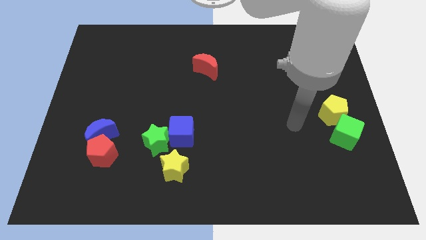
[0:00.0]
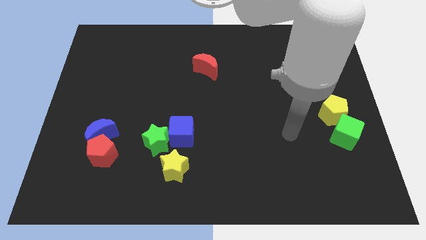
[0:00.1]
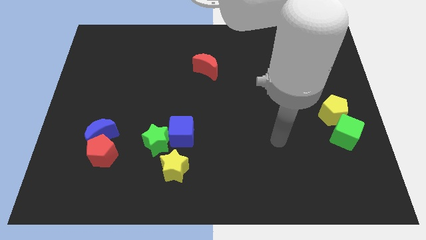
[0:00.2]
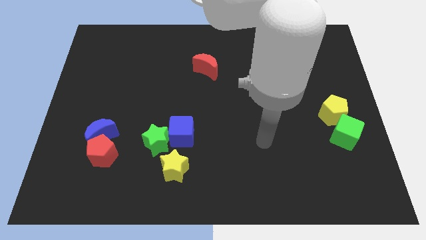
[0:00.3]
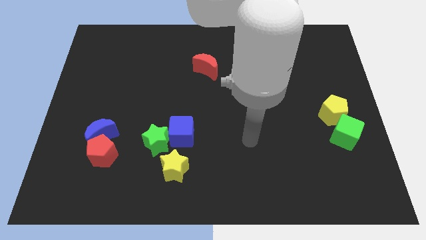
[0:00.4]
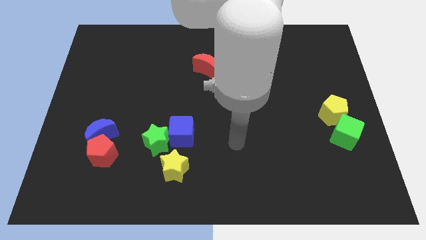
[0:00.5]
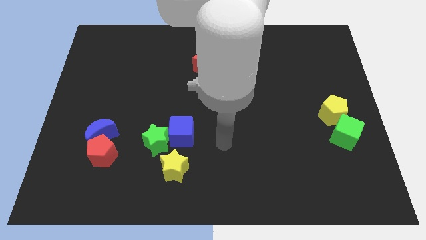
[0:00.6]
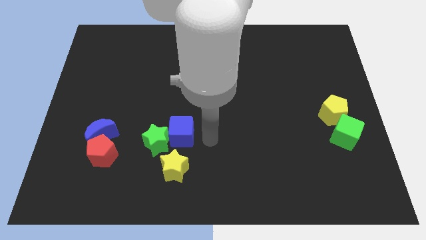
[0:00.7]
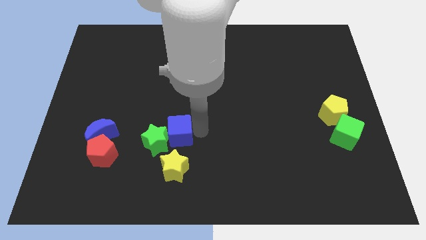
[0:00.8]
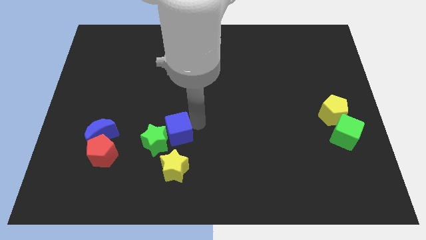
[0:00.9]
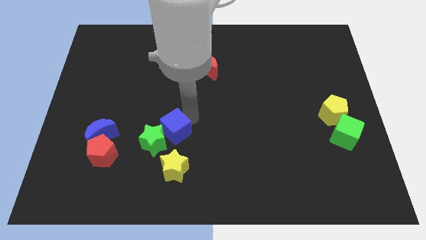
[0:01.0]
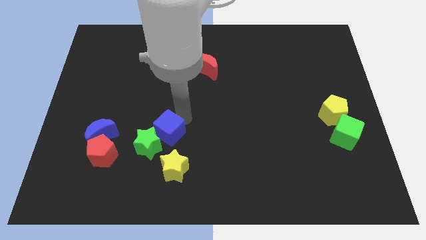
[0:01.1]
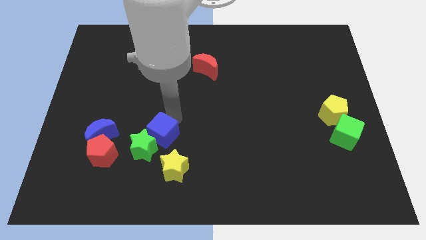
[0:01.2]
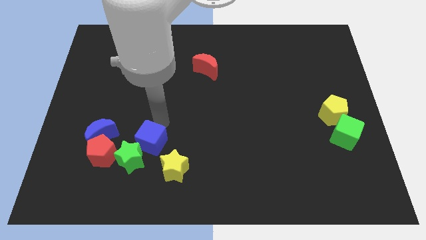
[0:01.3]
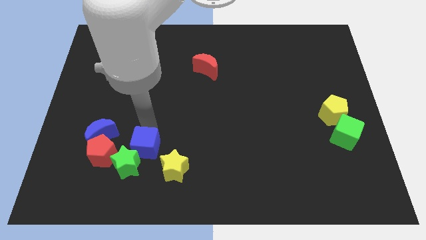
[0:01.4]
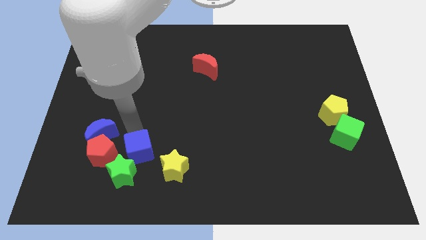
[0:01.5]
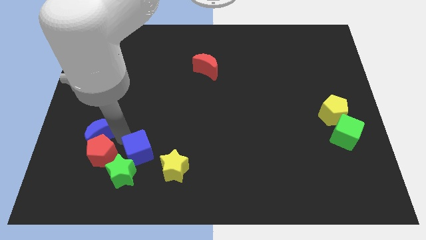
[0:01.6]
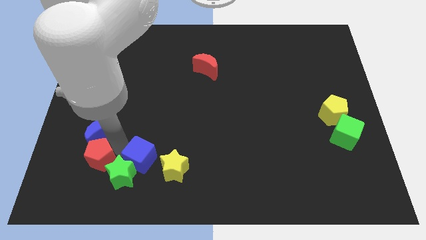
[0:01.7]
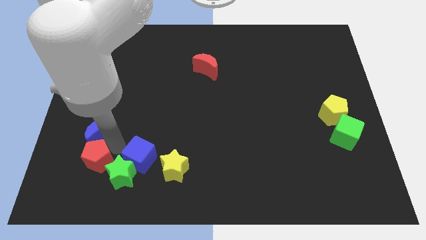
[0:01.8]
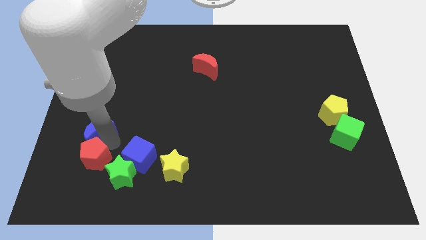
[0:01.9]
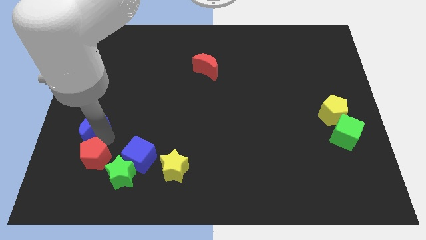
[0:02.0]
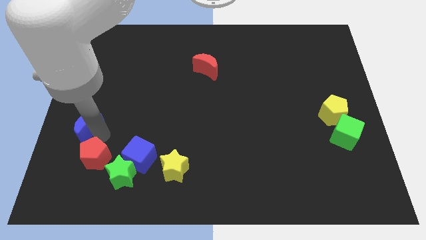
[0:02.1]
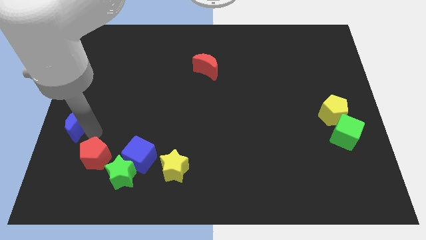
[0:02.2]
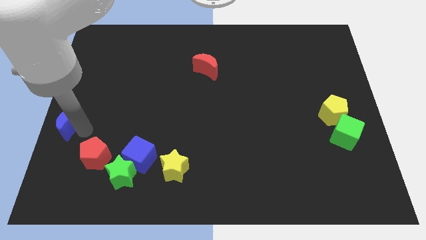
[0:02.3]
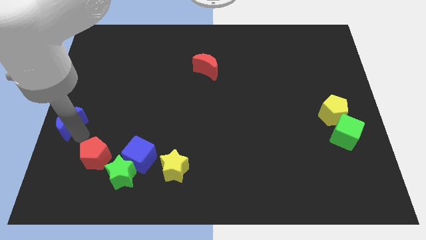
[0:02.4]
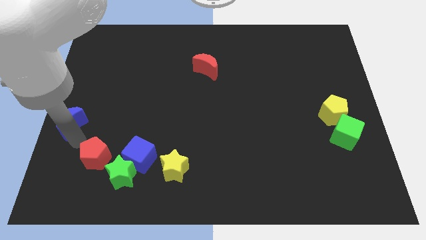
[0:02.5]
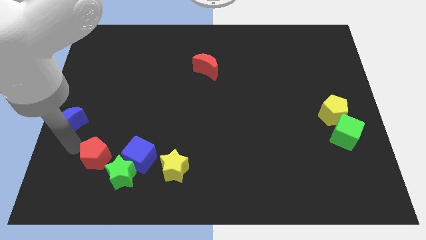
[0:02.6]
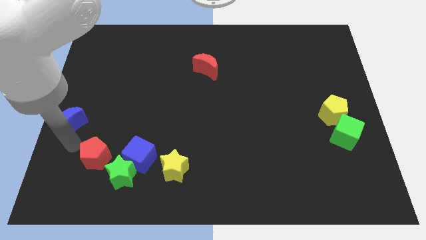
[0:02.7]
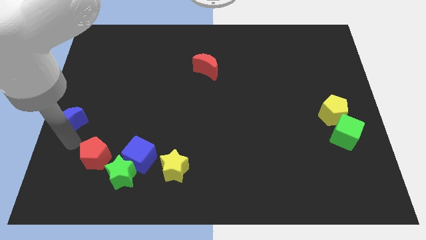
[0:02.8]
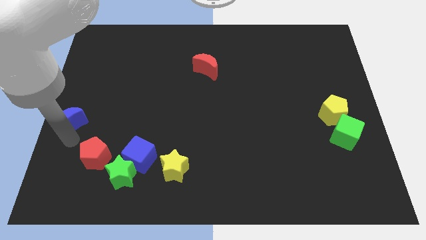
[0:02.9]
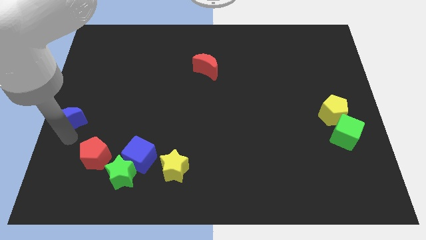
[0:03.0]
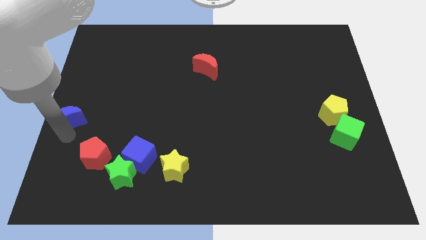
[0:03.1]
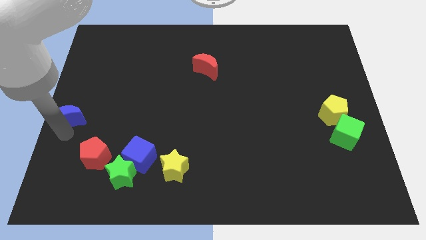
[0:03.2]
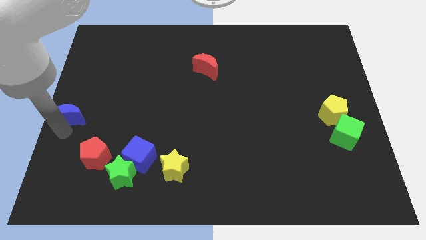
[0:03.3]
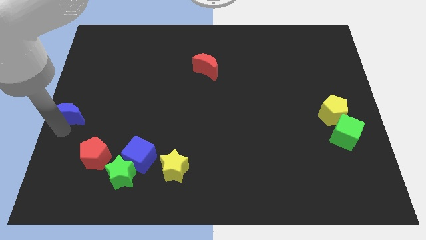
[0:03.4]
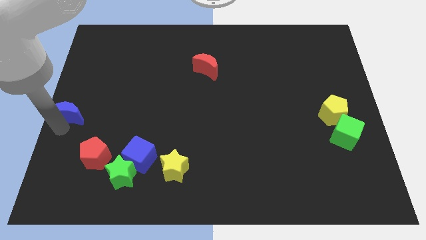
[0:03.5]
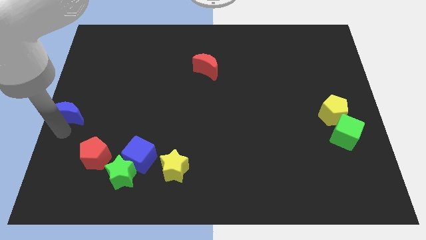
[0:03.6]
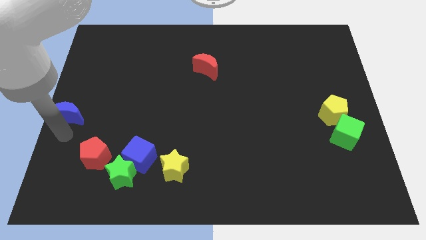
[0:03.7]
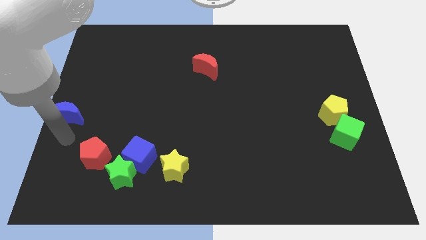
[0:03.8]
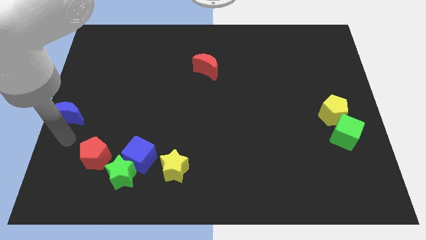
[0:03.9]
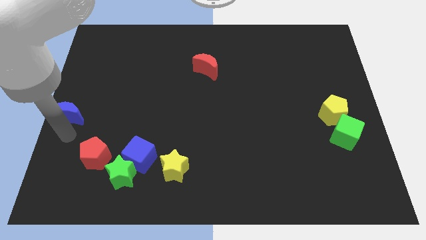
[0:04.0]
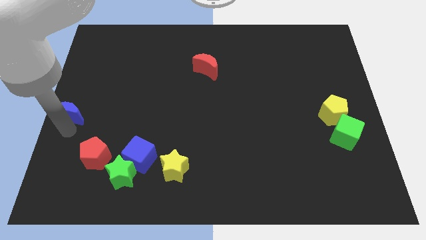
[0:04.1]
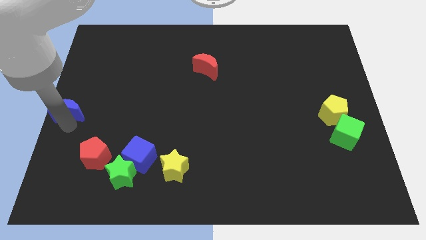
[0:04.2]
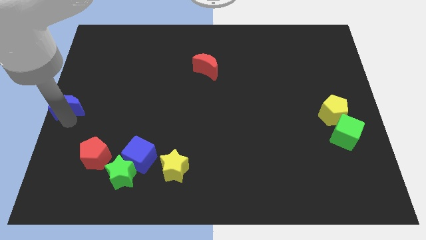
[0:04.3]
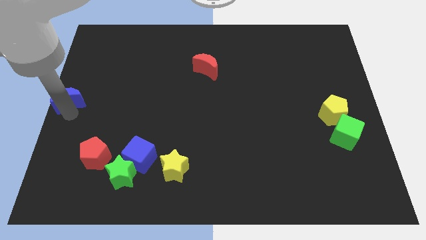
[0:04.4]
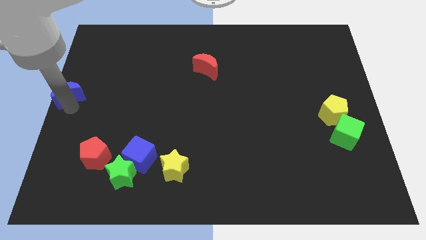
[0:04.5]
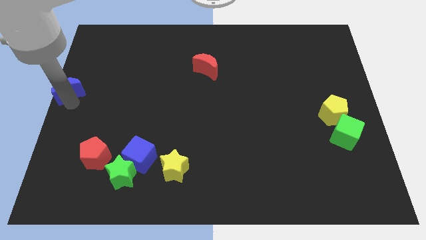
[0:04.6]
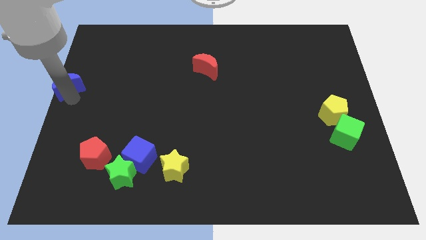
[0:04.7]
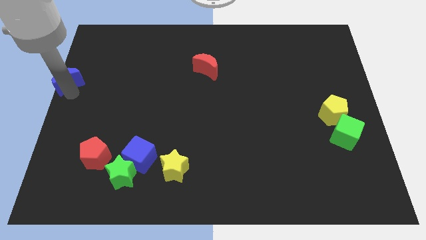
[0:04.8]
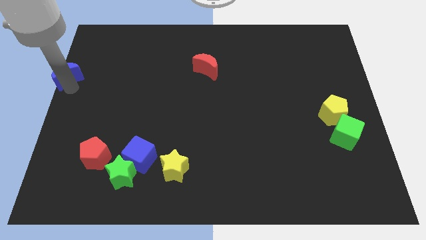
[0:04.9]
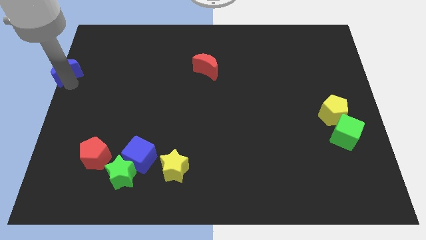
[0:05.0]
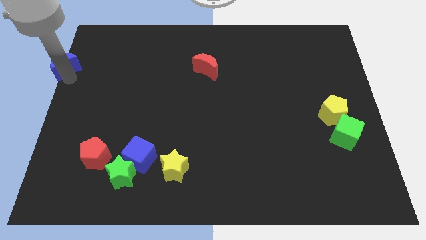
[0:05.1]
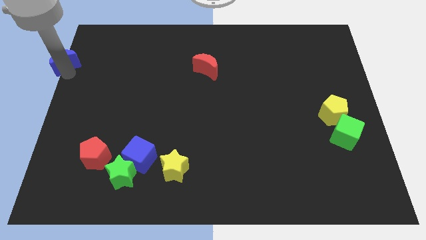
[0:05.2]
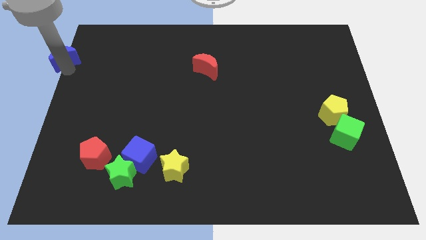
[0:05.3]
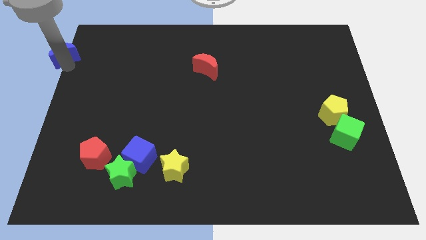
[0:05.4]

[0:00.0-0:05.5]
put the blue moon to the top left of the board

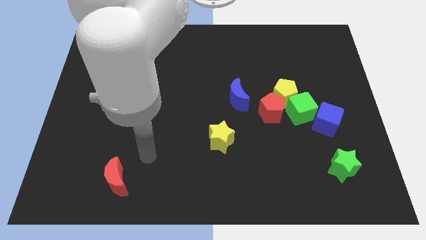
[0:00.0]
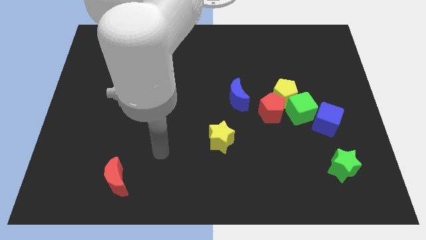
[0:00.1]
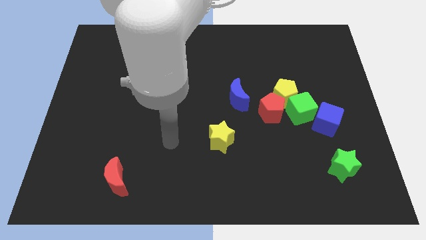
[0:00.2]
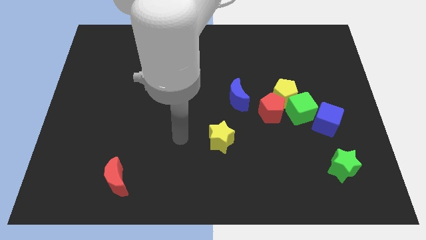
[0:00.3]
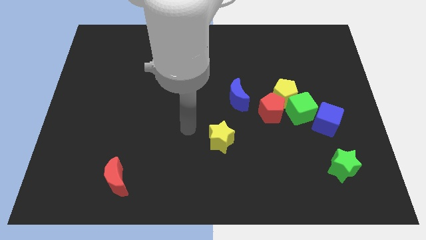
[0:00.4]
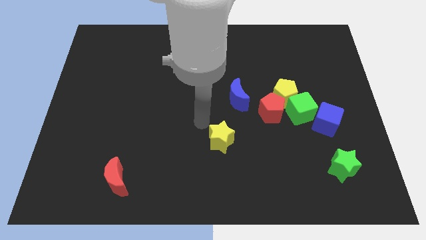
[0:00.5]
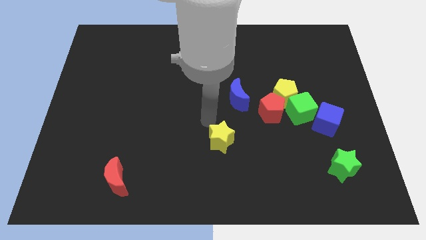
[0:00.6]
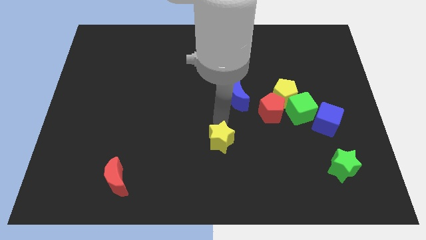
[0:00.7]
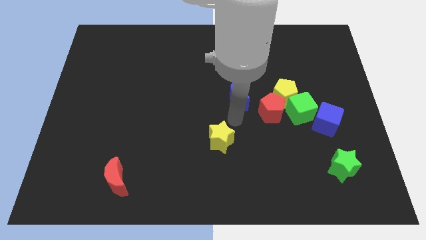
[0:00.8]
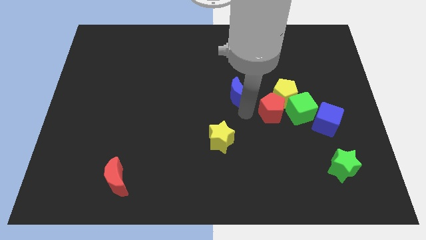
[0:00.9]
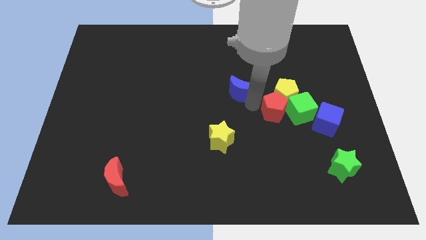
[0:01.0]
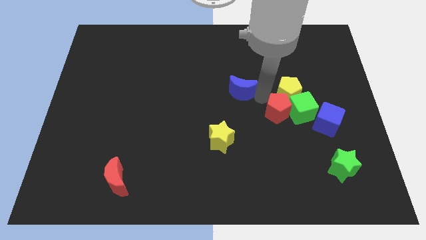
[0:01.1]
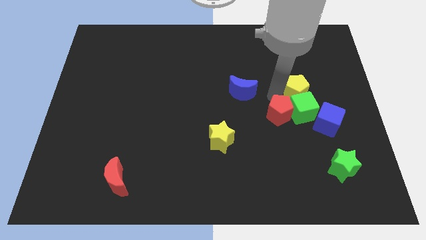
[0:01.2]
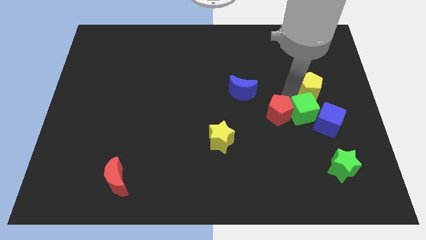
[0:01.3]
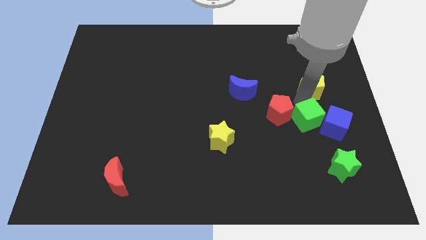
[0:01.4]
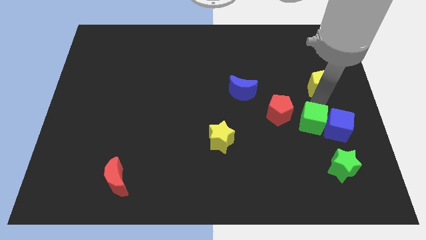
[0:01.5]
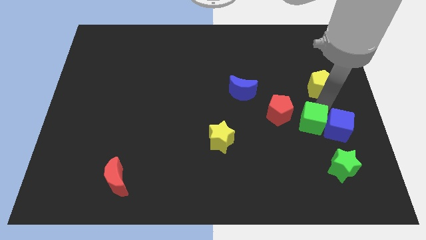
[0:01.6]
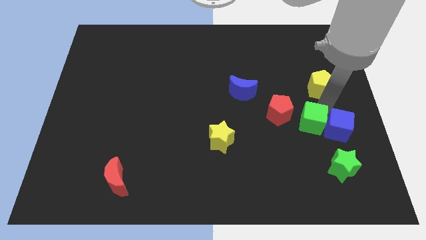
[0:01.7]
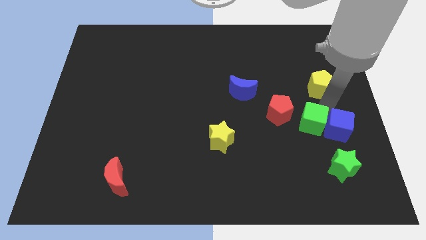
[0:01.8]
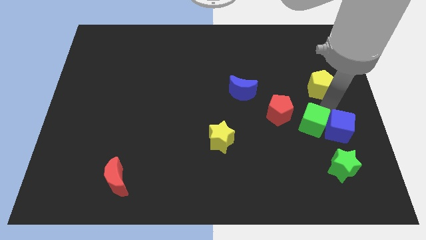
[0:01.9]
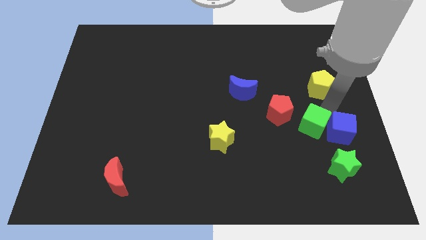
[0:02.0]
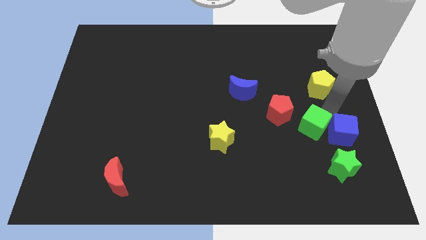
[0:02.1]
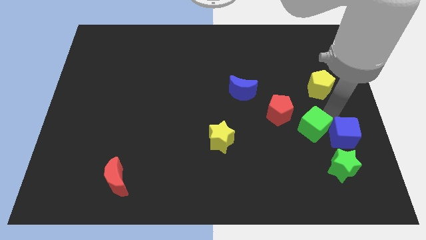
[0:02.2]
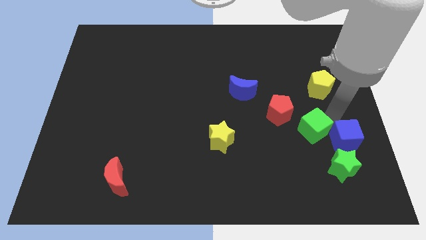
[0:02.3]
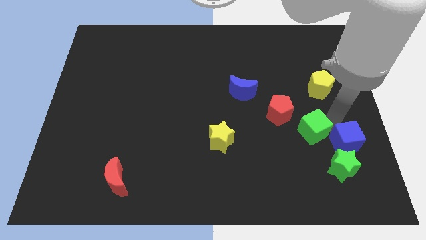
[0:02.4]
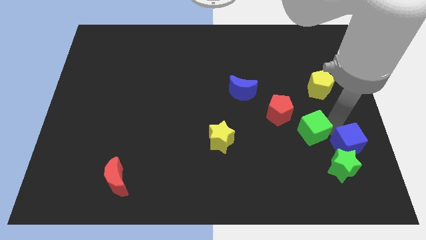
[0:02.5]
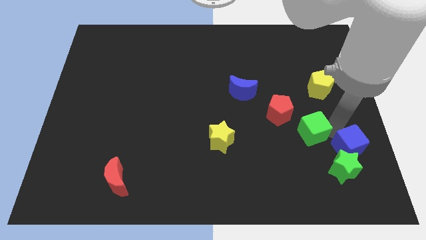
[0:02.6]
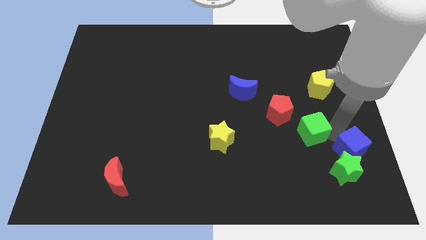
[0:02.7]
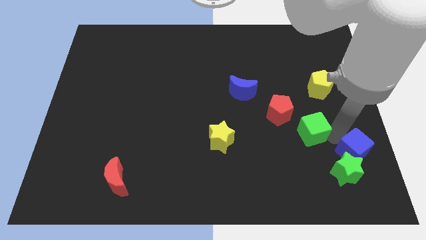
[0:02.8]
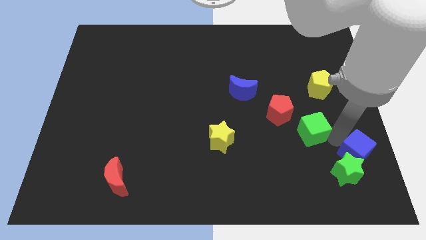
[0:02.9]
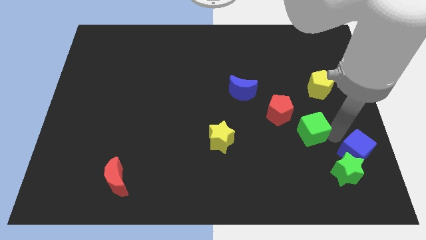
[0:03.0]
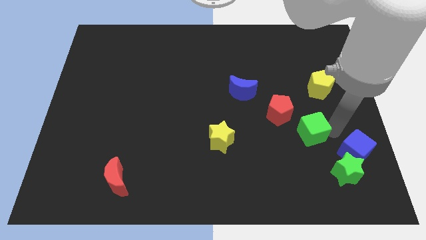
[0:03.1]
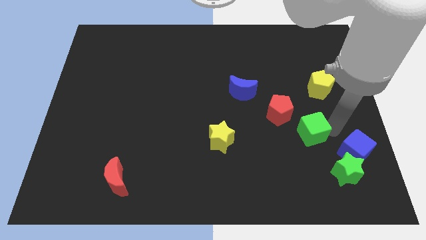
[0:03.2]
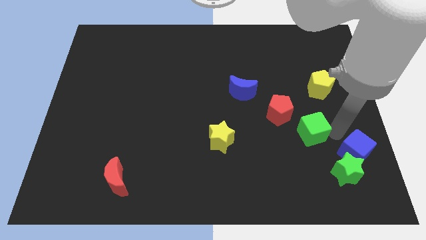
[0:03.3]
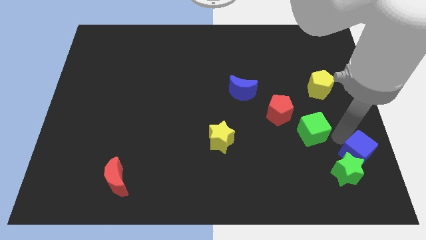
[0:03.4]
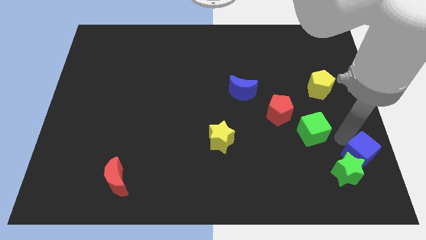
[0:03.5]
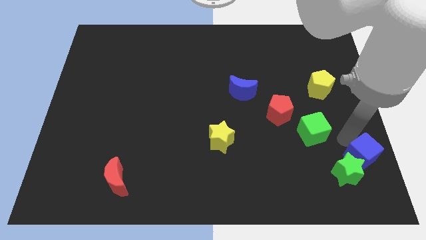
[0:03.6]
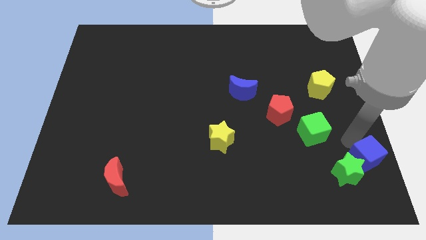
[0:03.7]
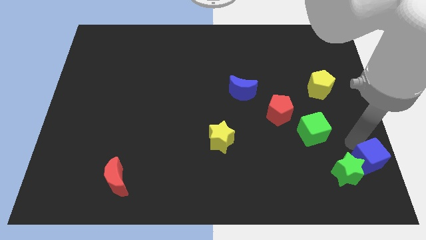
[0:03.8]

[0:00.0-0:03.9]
put the blue cube to the bottom right of the board
